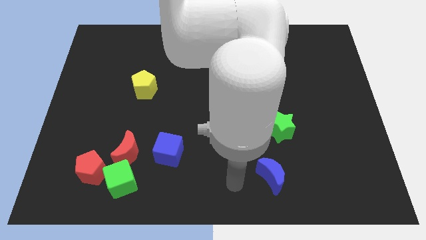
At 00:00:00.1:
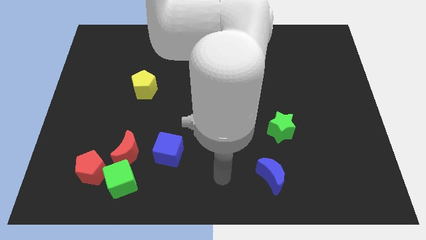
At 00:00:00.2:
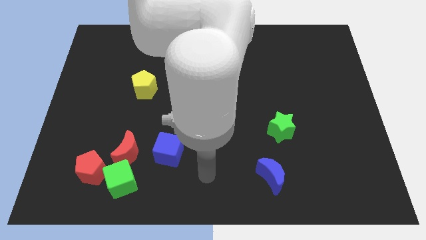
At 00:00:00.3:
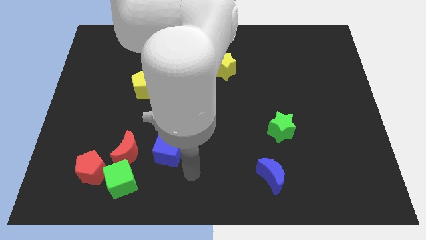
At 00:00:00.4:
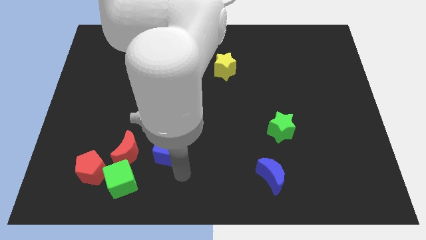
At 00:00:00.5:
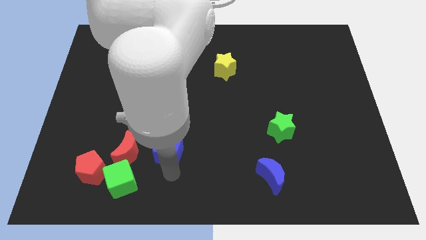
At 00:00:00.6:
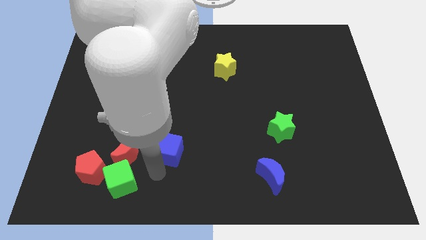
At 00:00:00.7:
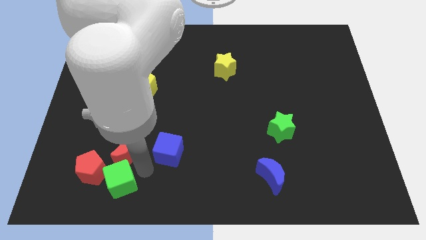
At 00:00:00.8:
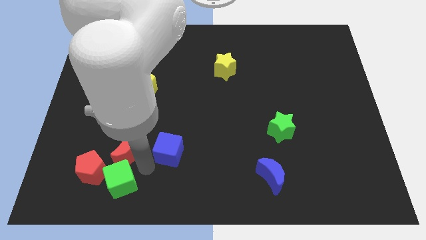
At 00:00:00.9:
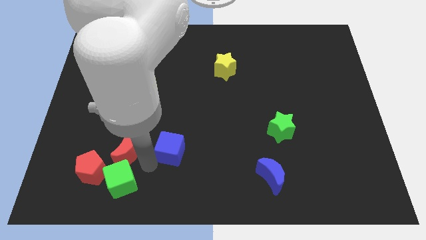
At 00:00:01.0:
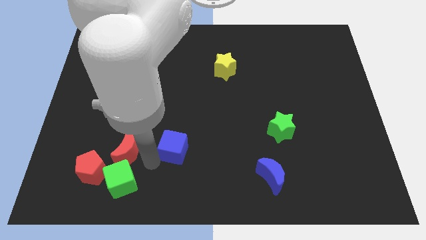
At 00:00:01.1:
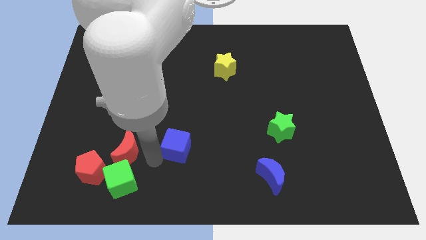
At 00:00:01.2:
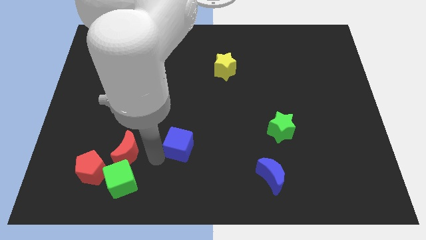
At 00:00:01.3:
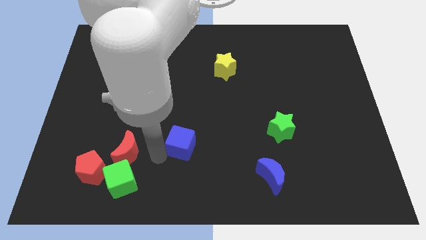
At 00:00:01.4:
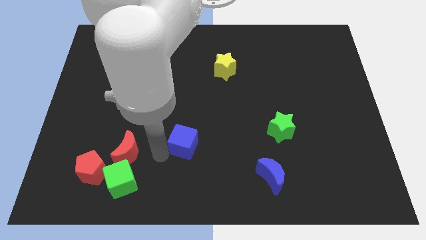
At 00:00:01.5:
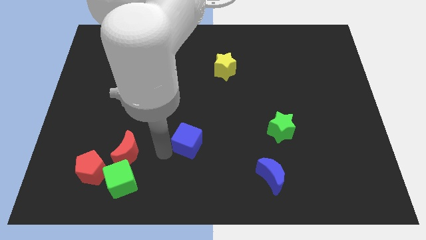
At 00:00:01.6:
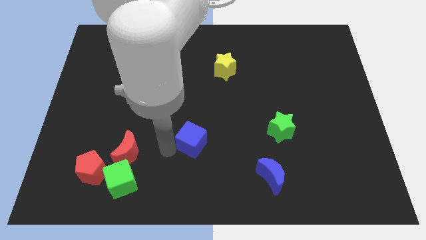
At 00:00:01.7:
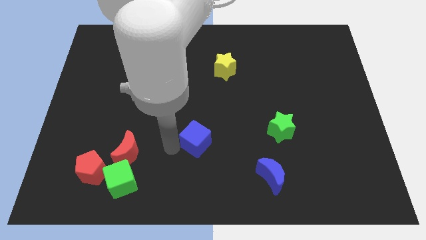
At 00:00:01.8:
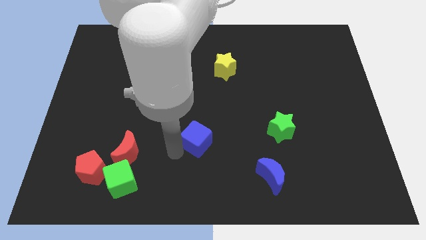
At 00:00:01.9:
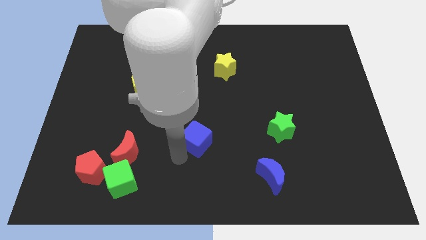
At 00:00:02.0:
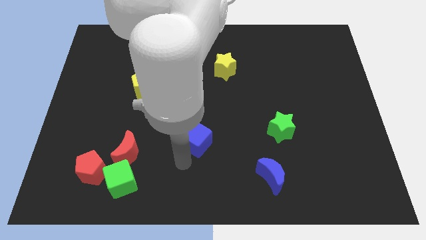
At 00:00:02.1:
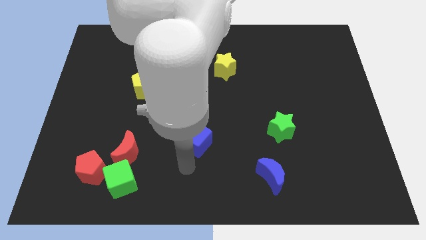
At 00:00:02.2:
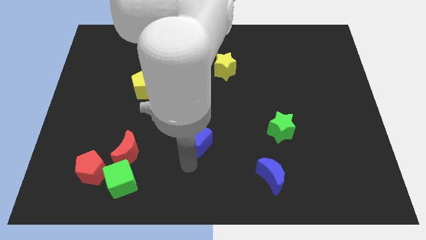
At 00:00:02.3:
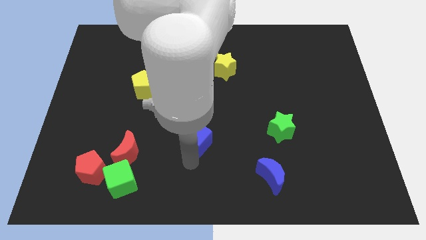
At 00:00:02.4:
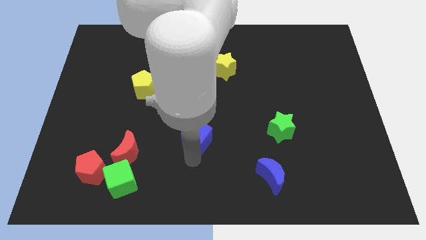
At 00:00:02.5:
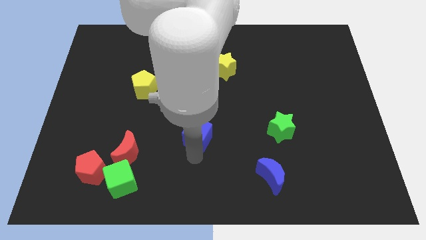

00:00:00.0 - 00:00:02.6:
slightly push the blue cube upwards and then right

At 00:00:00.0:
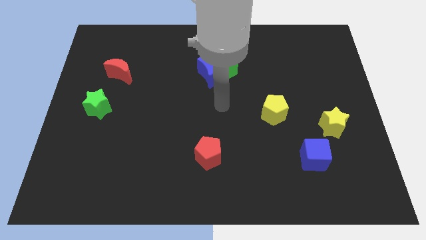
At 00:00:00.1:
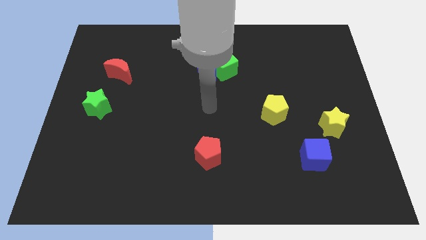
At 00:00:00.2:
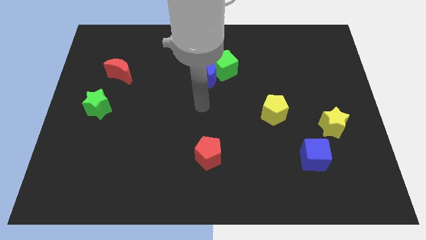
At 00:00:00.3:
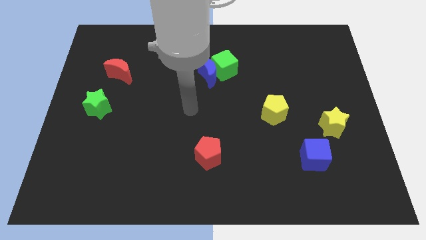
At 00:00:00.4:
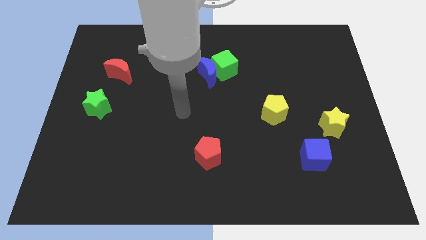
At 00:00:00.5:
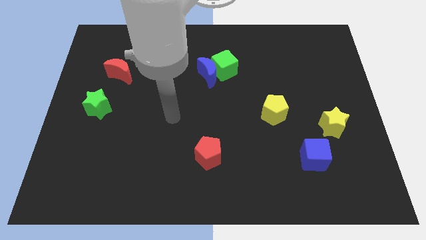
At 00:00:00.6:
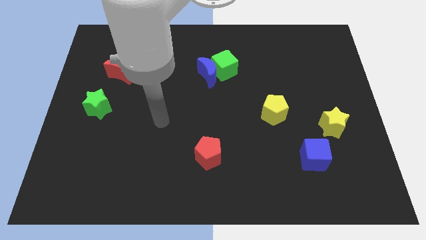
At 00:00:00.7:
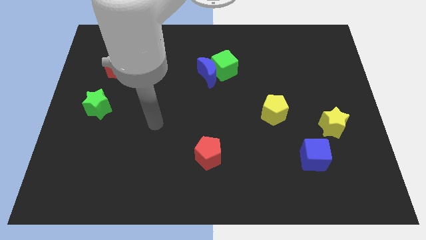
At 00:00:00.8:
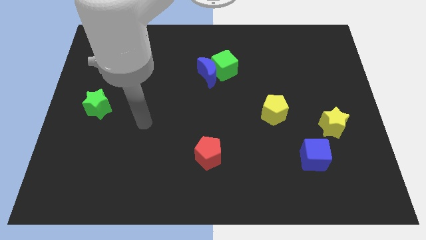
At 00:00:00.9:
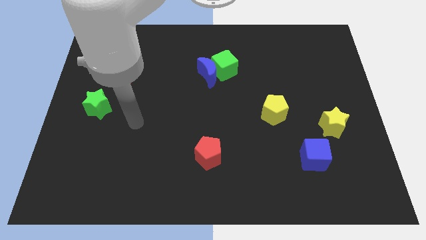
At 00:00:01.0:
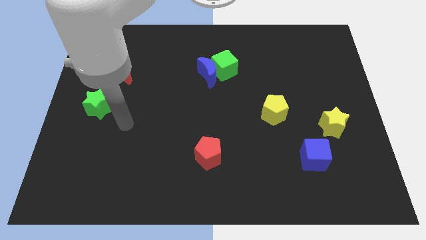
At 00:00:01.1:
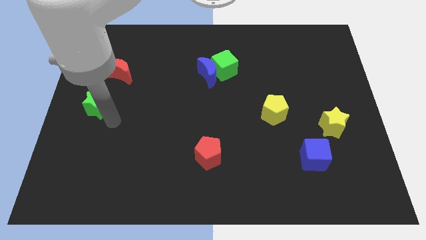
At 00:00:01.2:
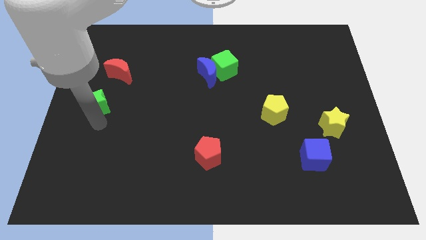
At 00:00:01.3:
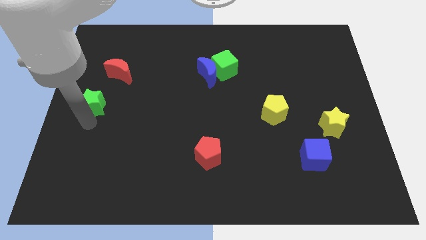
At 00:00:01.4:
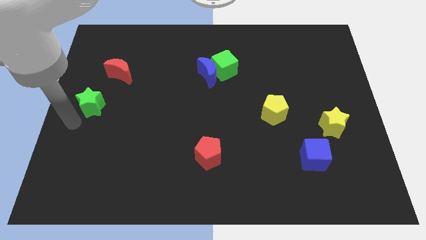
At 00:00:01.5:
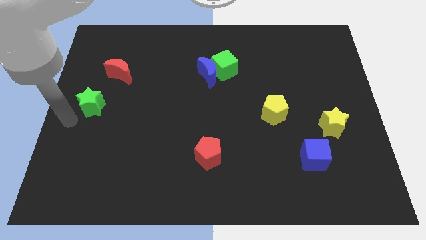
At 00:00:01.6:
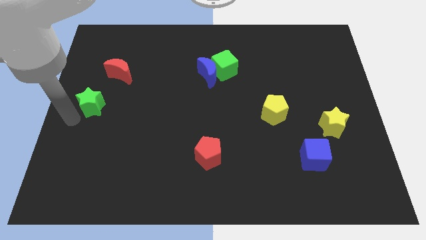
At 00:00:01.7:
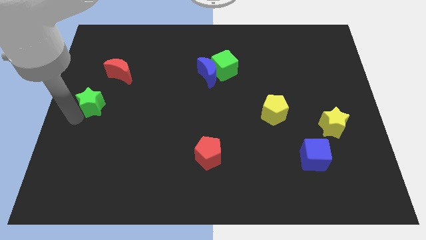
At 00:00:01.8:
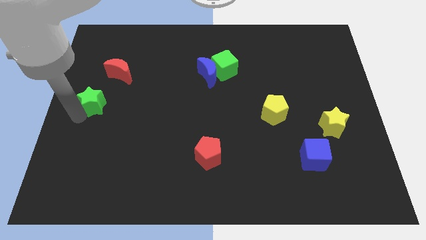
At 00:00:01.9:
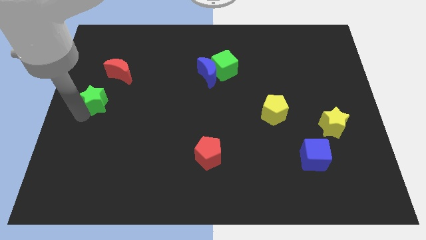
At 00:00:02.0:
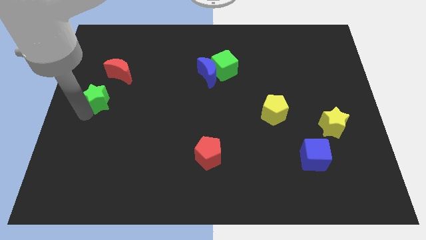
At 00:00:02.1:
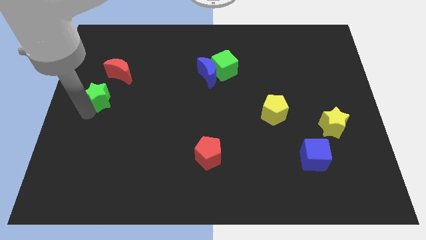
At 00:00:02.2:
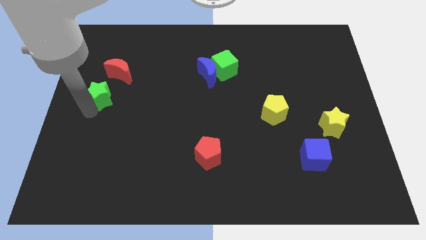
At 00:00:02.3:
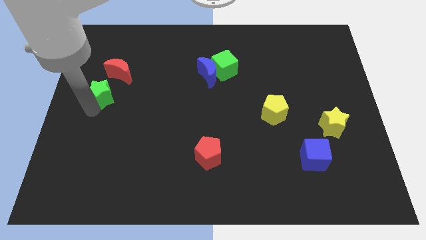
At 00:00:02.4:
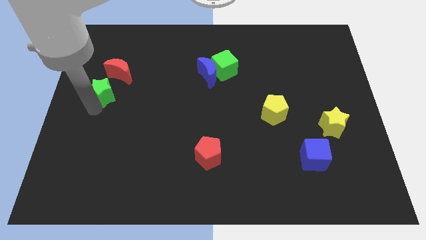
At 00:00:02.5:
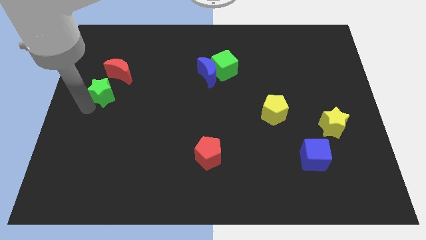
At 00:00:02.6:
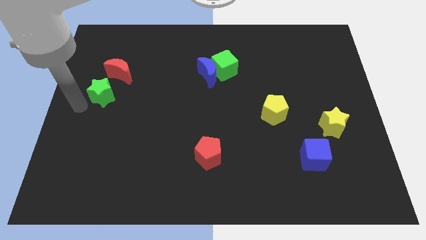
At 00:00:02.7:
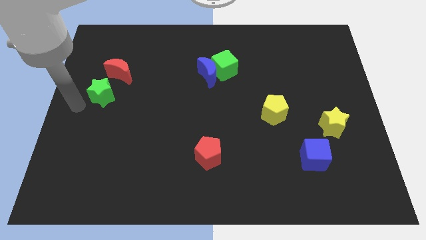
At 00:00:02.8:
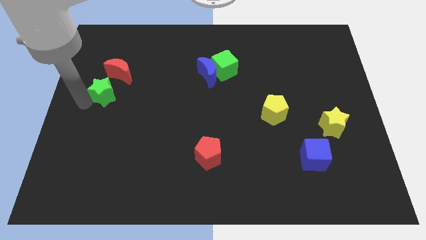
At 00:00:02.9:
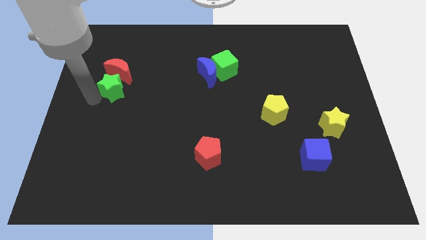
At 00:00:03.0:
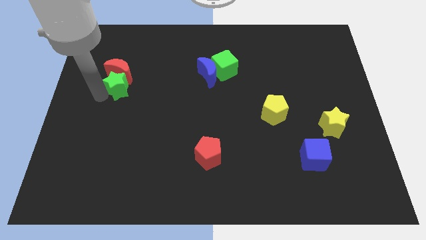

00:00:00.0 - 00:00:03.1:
slide the green star up and to the right diagonally a little

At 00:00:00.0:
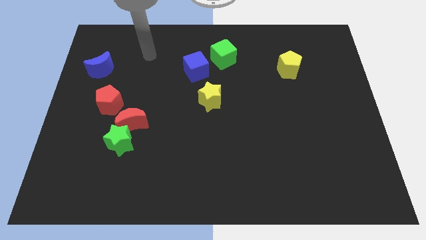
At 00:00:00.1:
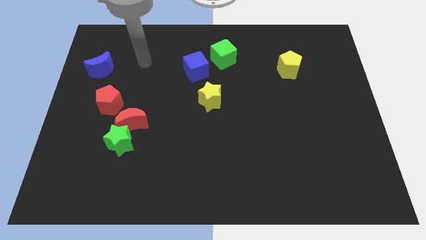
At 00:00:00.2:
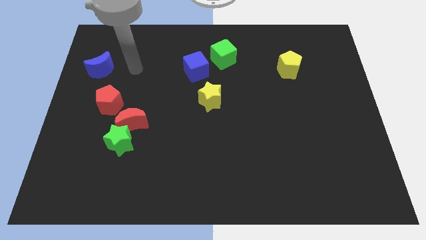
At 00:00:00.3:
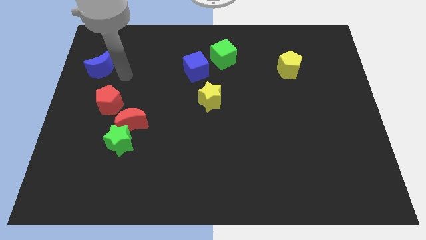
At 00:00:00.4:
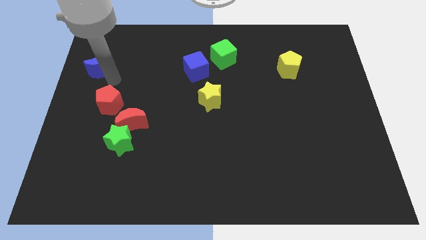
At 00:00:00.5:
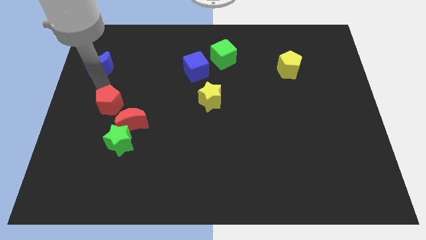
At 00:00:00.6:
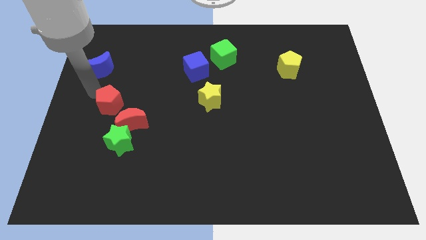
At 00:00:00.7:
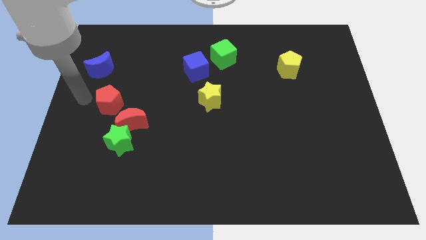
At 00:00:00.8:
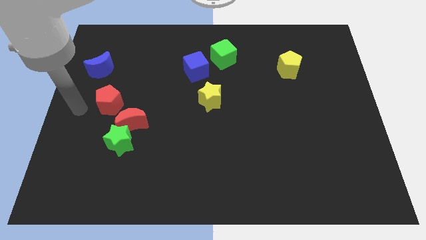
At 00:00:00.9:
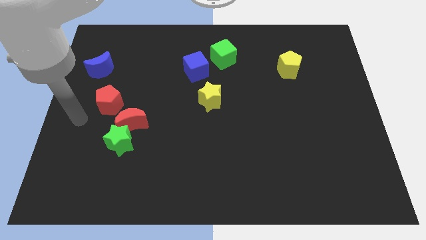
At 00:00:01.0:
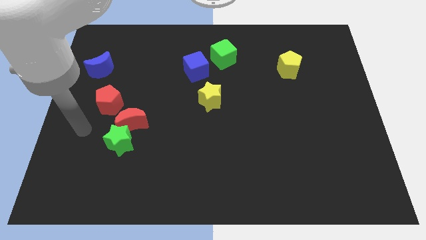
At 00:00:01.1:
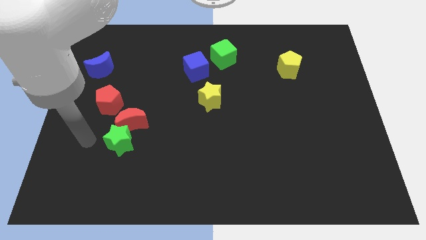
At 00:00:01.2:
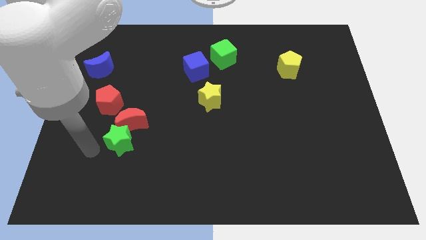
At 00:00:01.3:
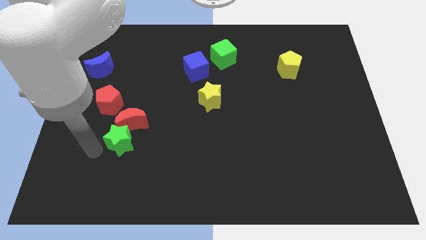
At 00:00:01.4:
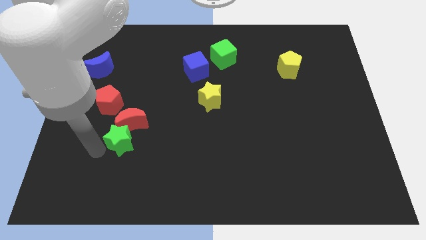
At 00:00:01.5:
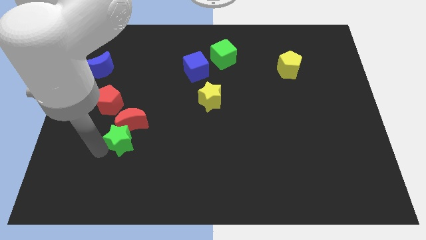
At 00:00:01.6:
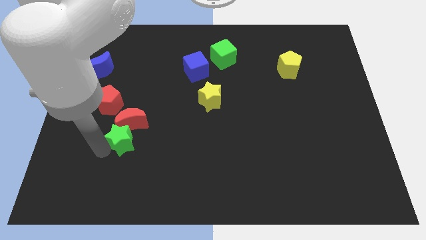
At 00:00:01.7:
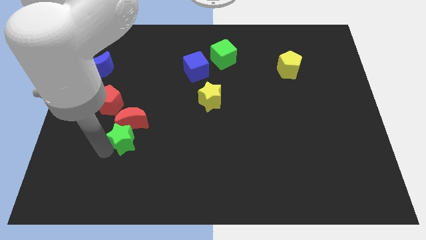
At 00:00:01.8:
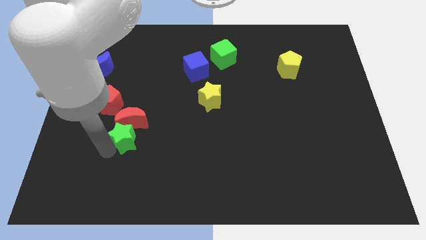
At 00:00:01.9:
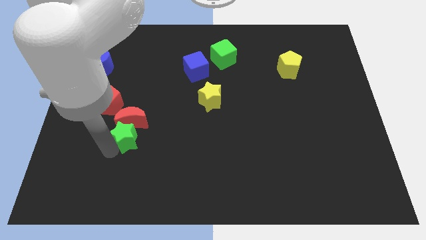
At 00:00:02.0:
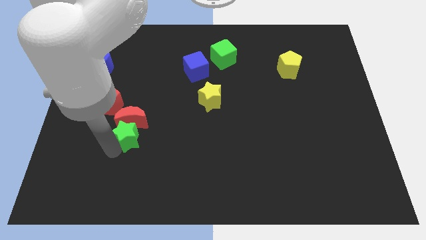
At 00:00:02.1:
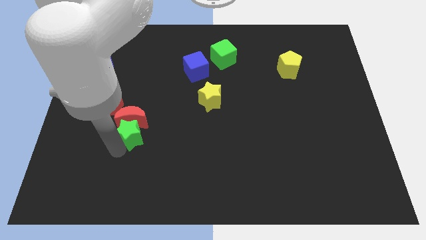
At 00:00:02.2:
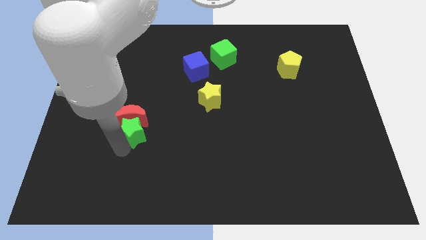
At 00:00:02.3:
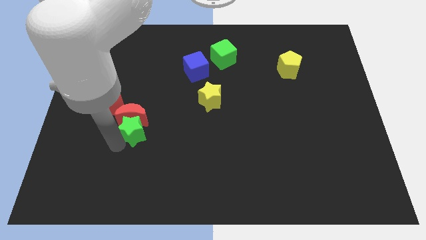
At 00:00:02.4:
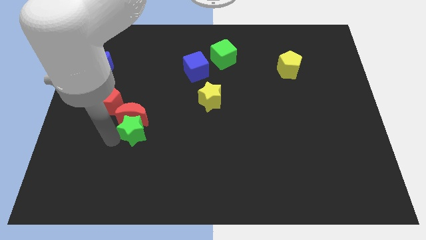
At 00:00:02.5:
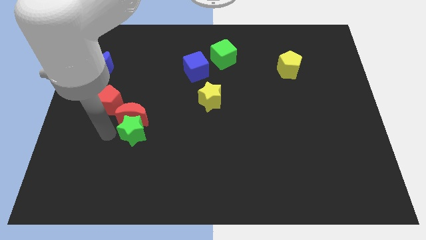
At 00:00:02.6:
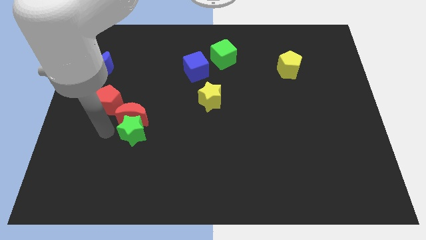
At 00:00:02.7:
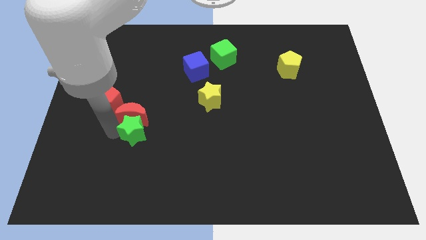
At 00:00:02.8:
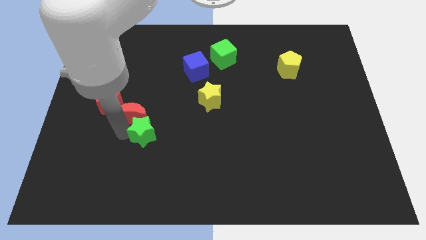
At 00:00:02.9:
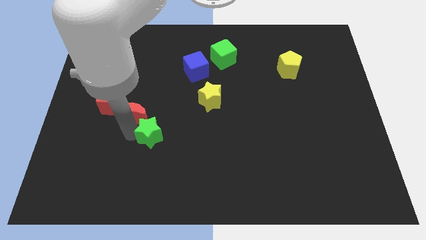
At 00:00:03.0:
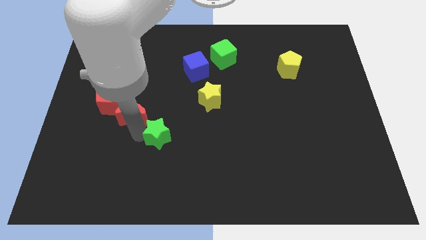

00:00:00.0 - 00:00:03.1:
push the green star somewhat right
